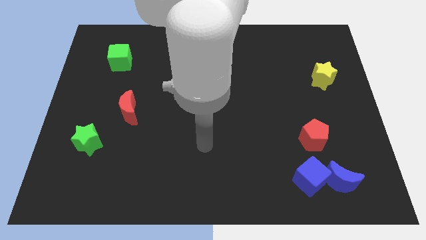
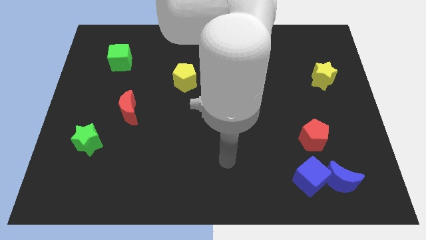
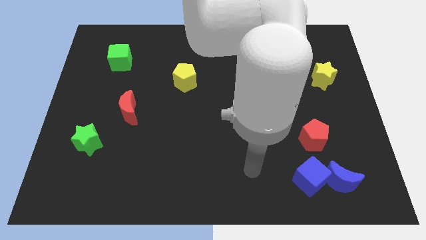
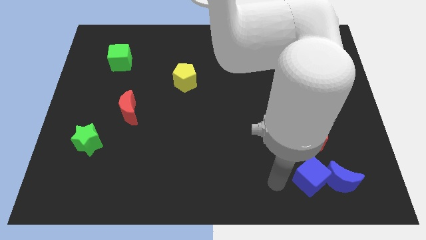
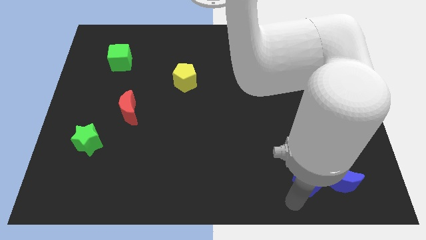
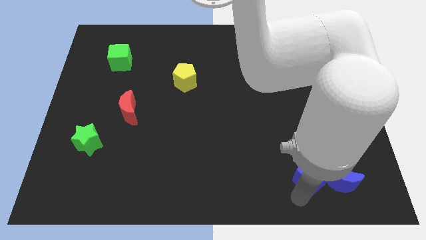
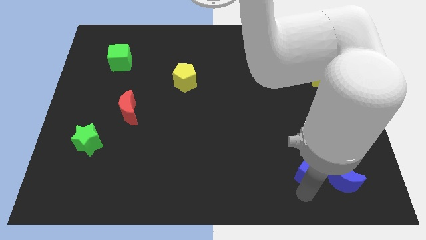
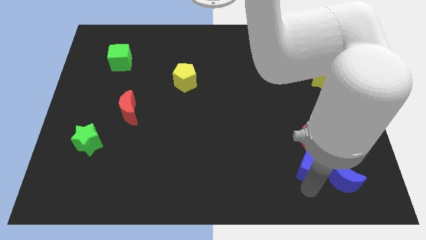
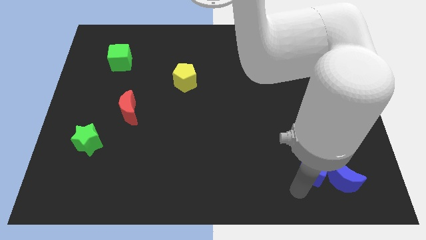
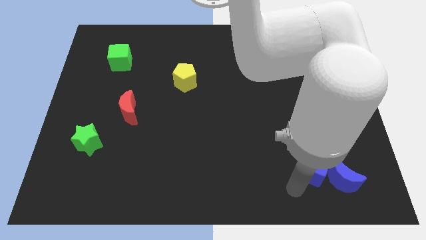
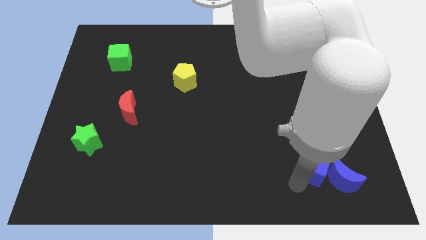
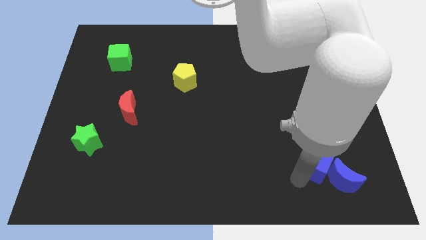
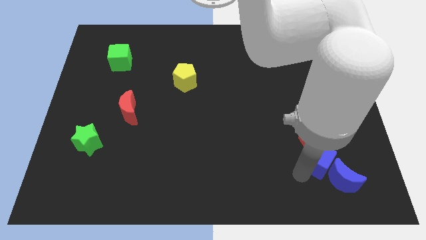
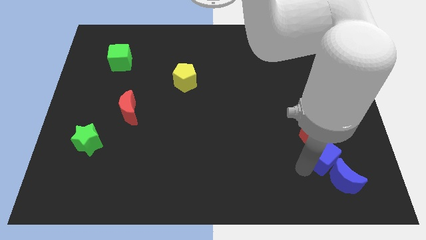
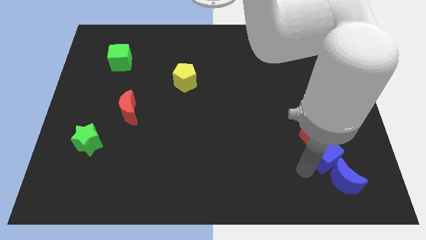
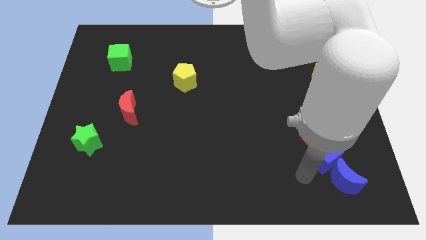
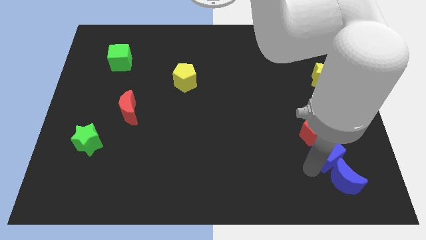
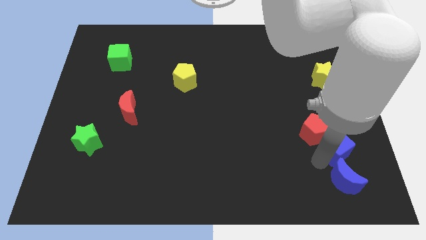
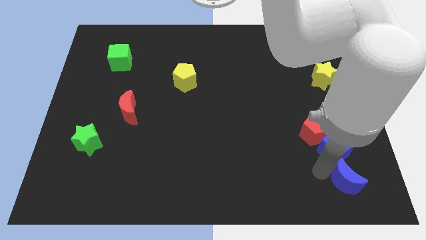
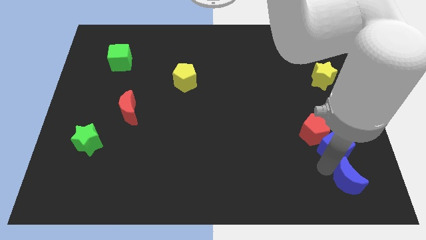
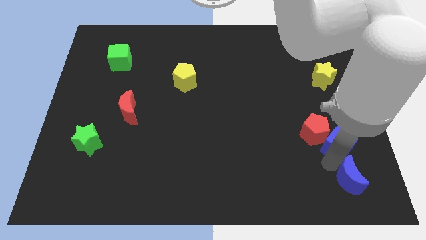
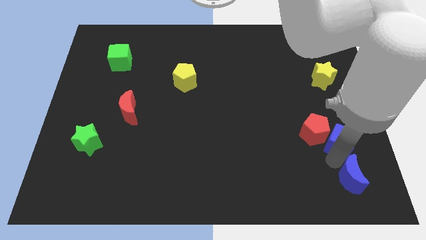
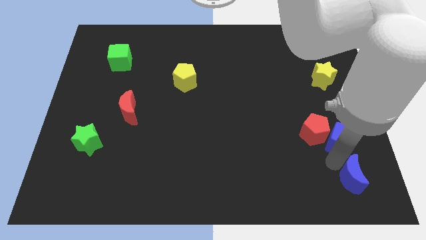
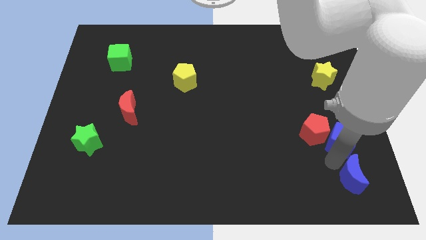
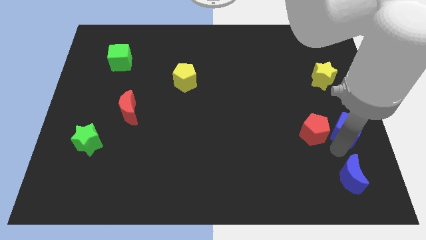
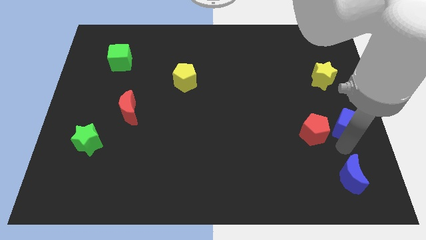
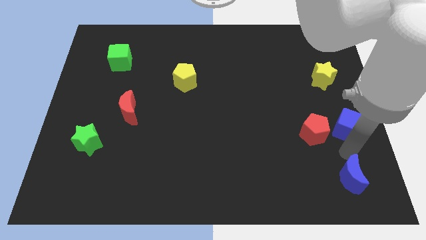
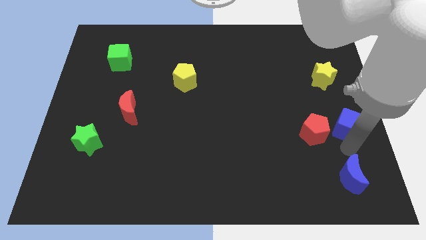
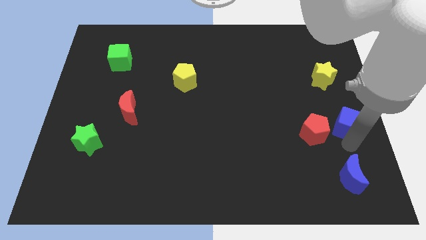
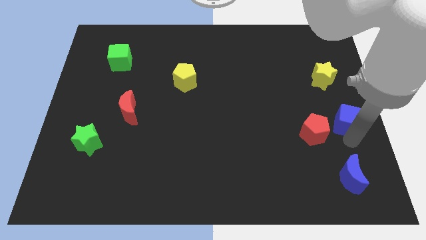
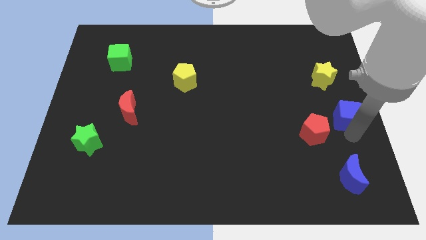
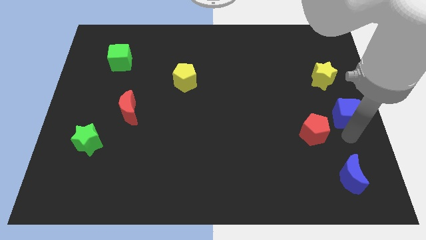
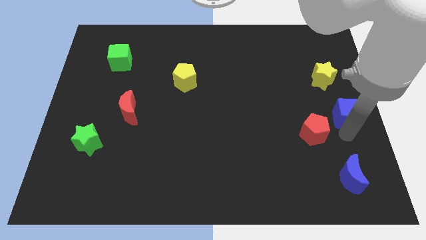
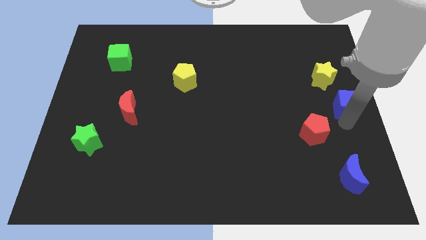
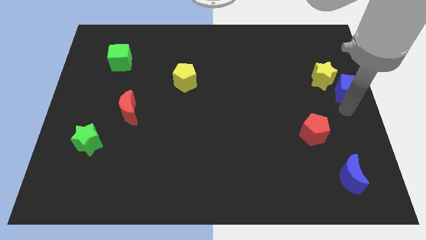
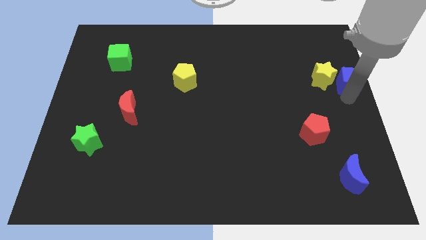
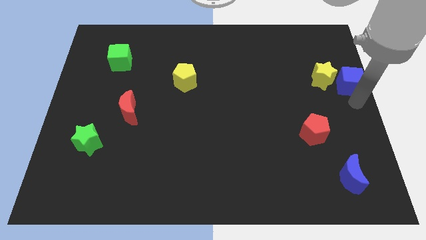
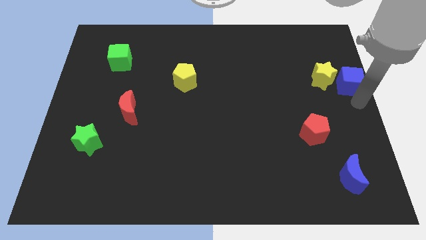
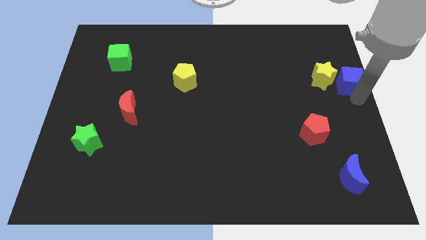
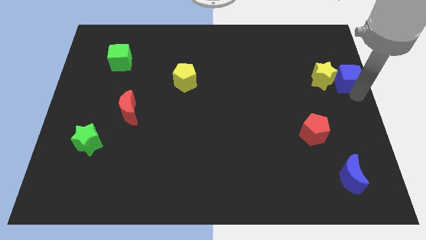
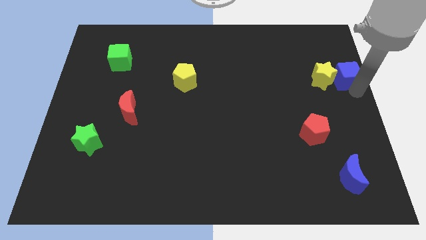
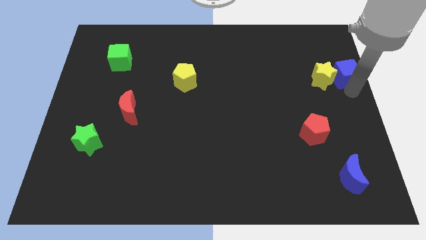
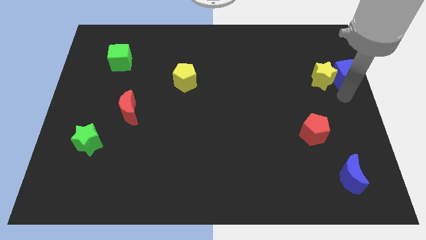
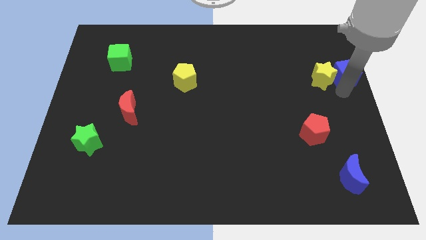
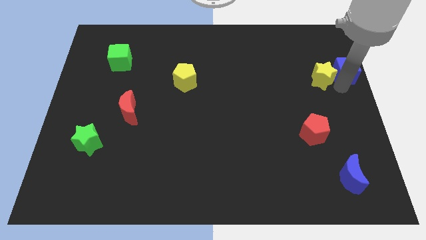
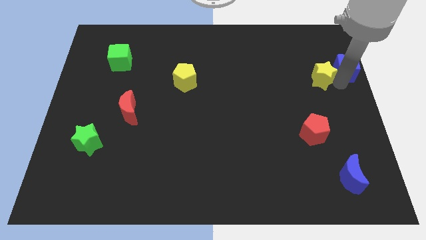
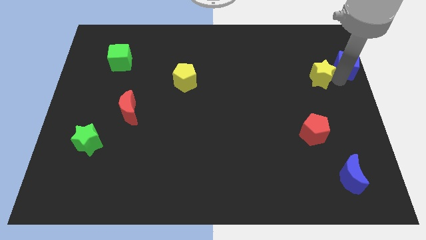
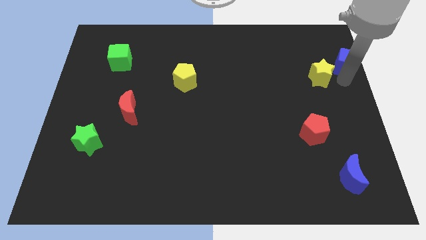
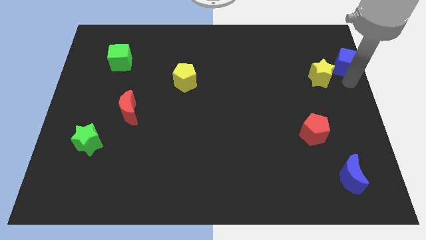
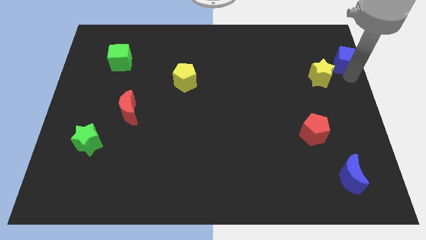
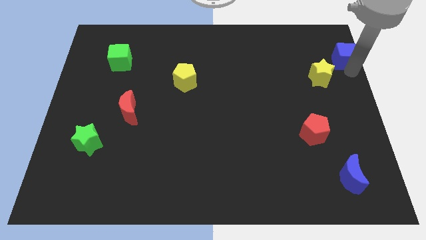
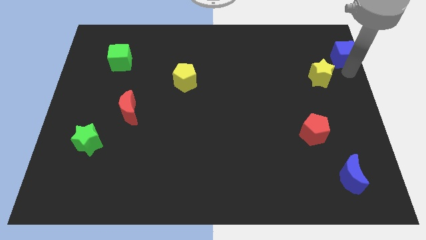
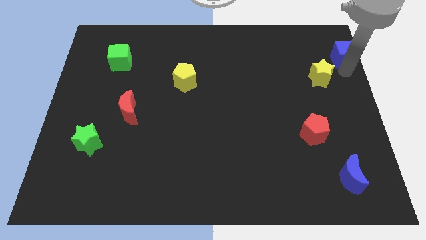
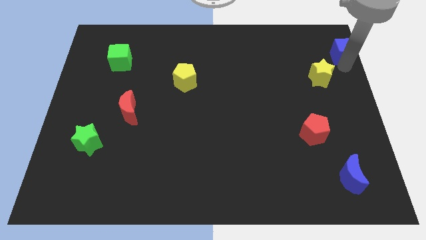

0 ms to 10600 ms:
move the blue cube to the upper right corner
